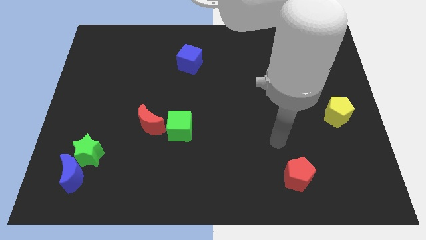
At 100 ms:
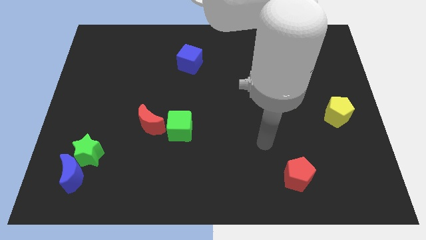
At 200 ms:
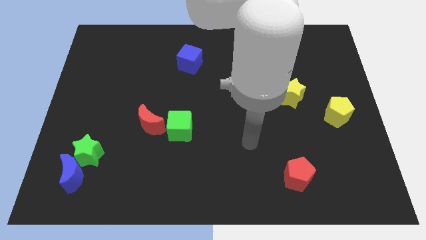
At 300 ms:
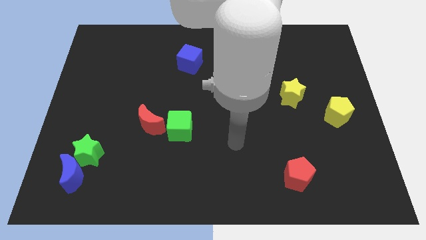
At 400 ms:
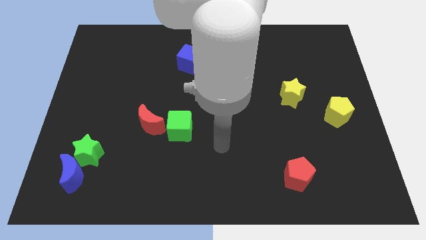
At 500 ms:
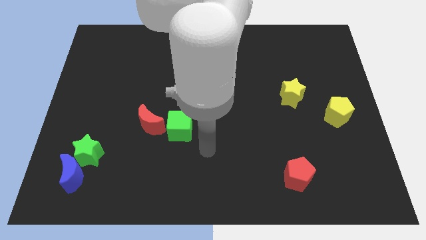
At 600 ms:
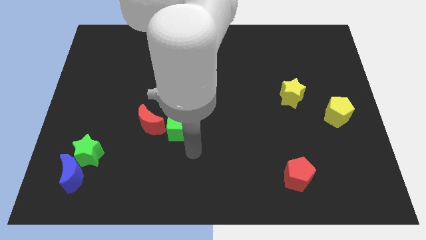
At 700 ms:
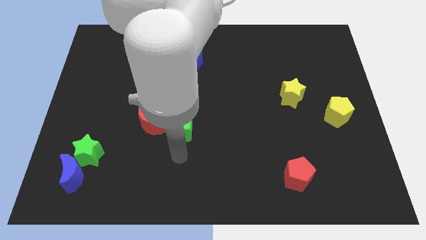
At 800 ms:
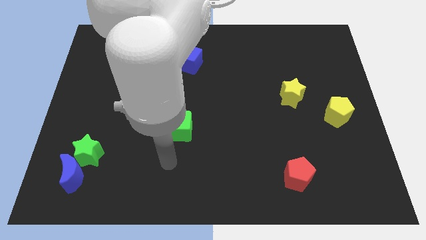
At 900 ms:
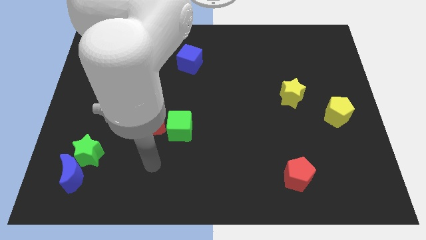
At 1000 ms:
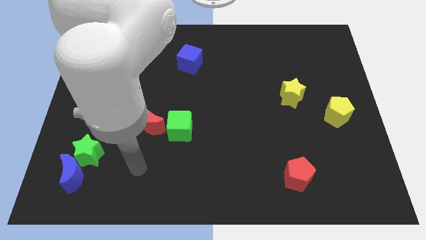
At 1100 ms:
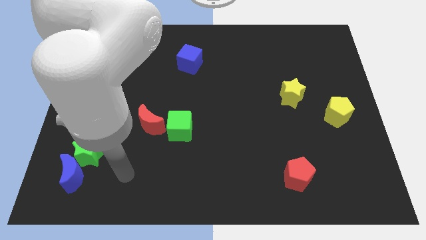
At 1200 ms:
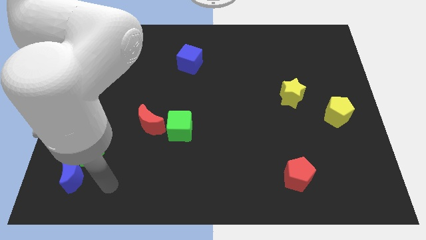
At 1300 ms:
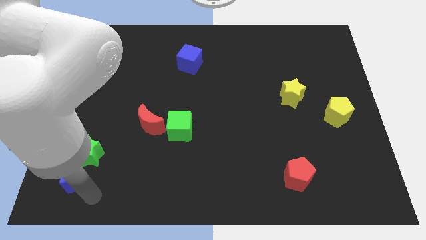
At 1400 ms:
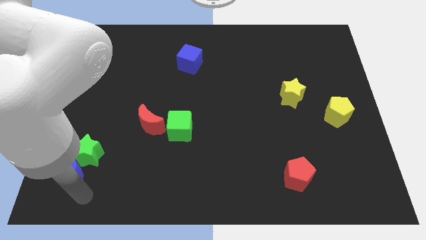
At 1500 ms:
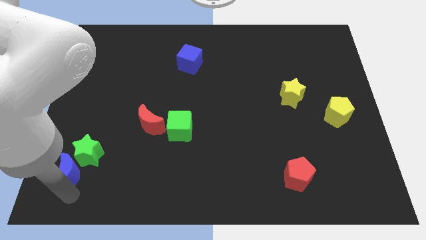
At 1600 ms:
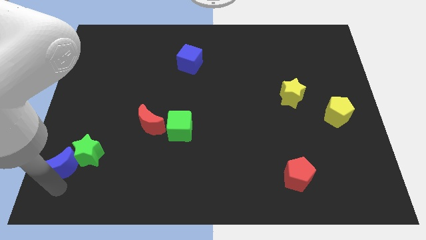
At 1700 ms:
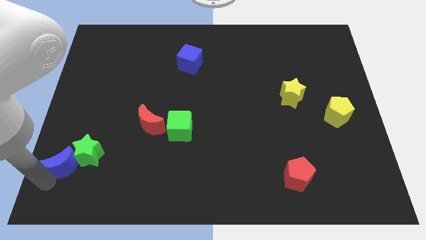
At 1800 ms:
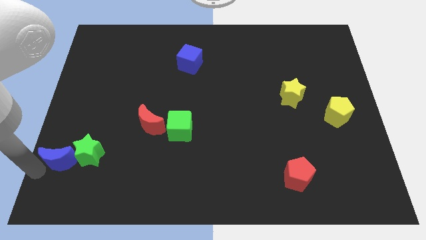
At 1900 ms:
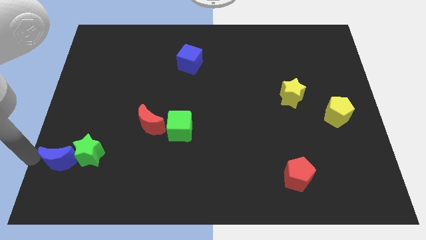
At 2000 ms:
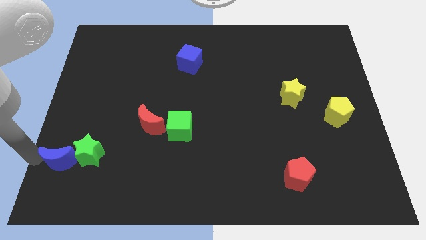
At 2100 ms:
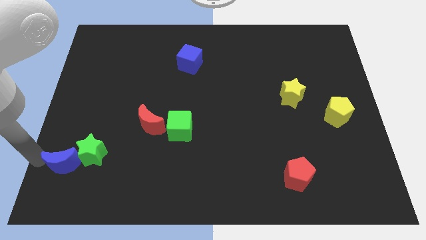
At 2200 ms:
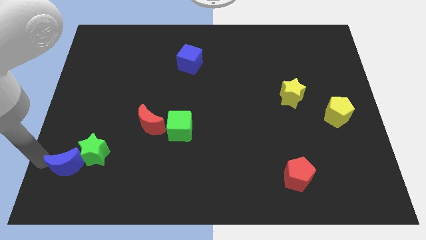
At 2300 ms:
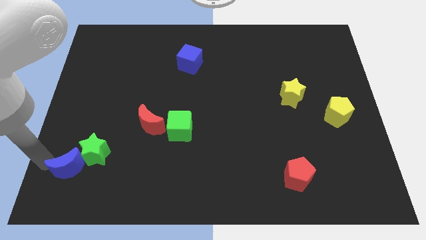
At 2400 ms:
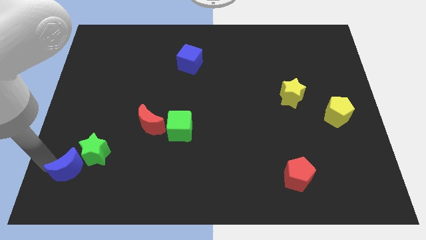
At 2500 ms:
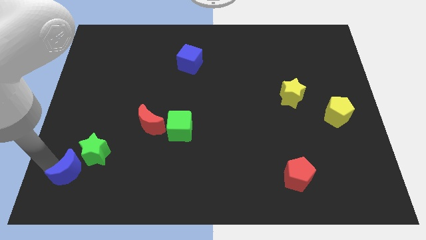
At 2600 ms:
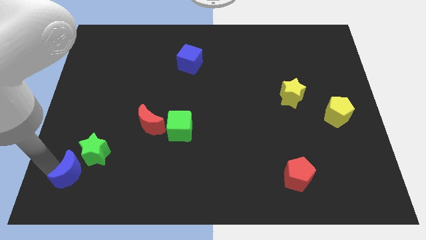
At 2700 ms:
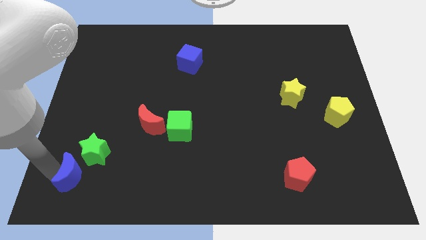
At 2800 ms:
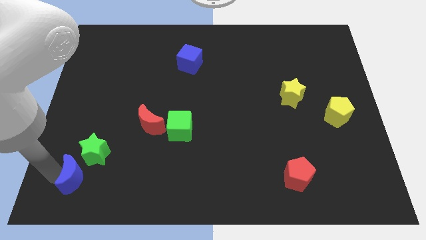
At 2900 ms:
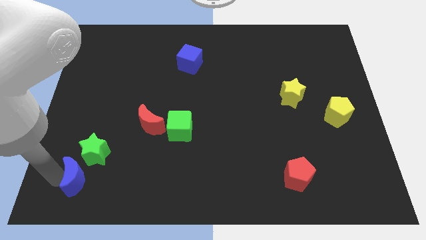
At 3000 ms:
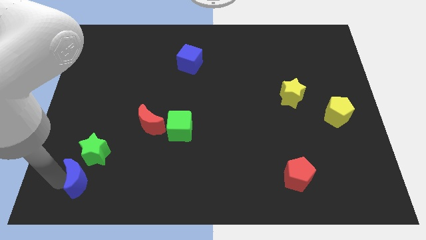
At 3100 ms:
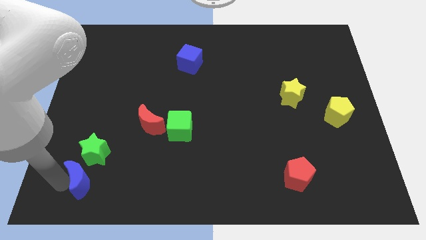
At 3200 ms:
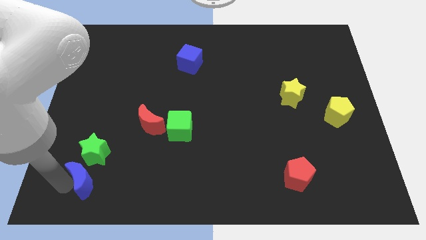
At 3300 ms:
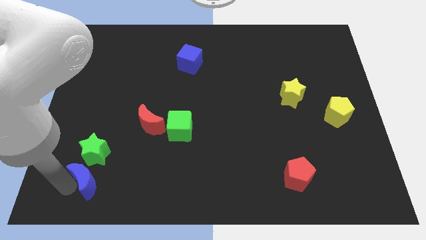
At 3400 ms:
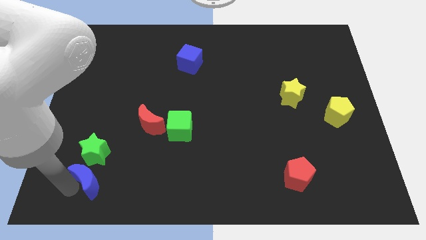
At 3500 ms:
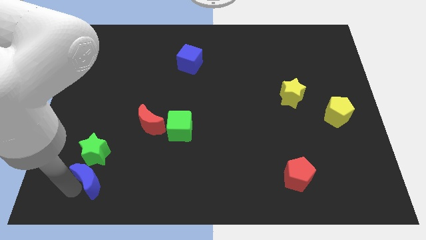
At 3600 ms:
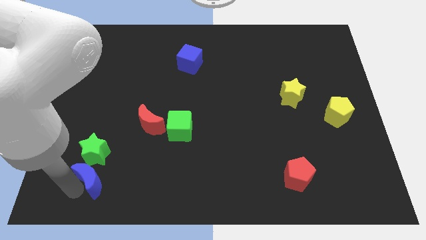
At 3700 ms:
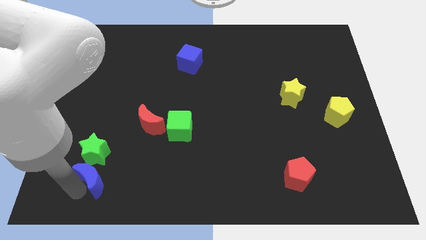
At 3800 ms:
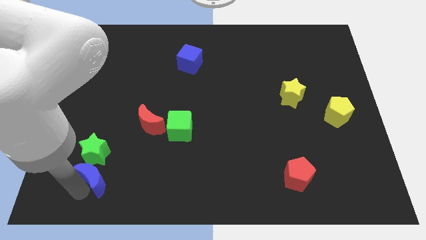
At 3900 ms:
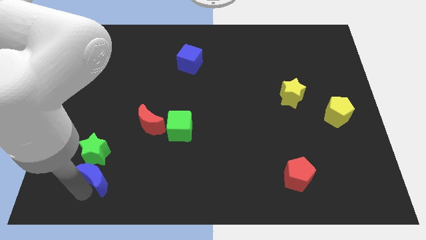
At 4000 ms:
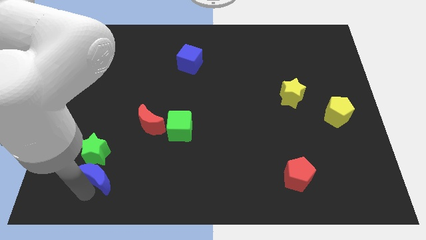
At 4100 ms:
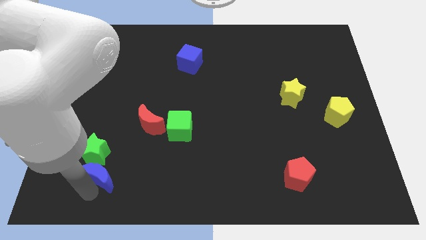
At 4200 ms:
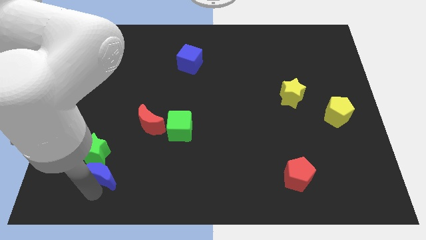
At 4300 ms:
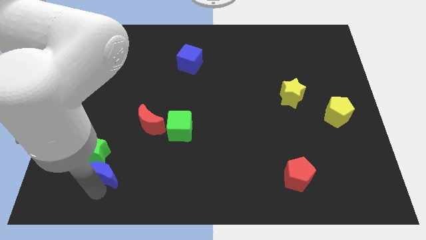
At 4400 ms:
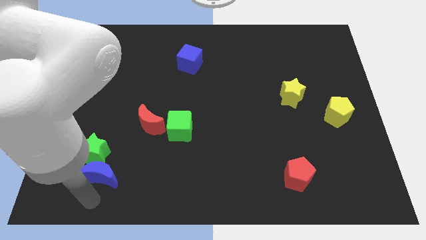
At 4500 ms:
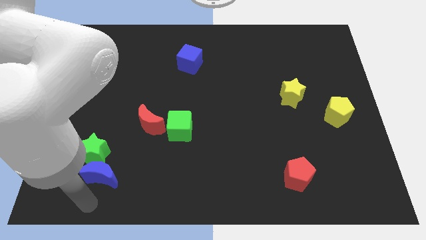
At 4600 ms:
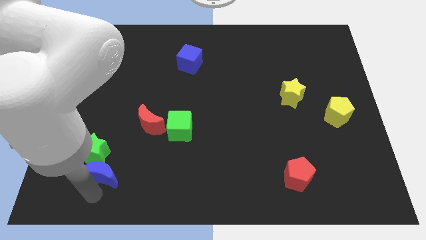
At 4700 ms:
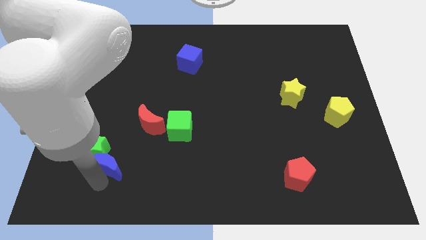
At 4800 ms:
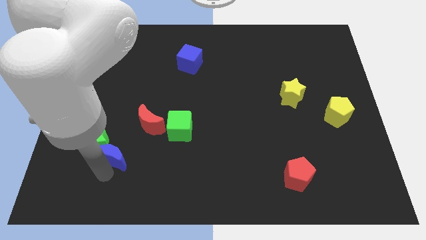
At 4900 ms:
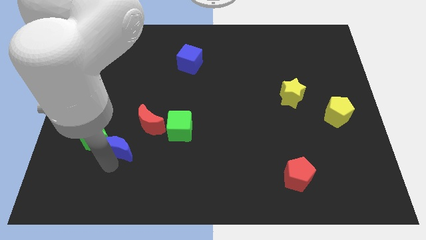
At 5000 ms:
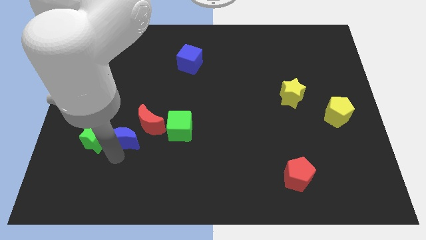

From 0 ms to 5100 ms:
slide the blue moon to the top right of the green star

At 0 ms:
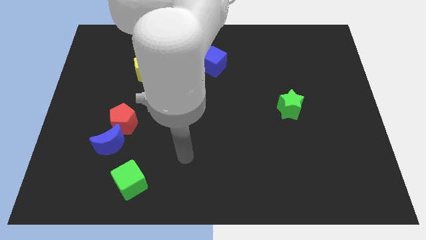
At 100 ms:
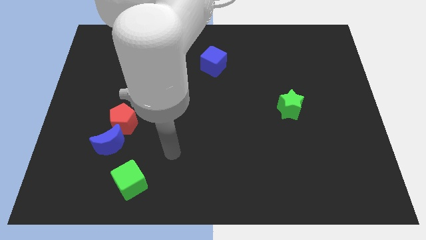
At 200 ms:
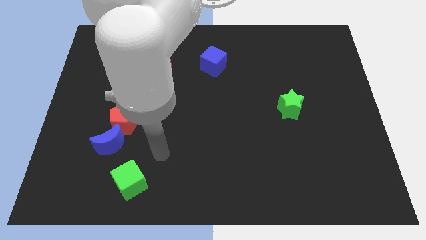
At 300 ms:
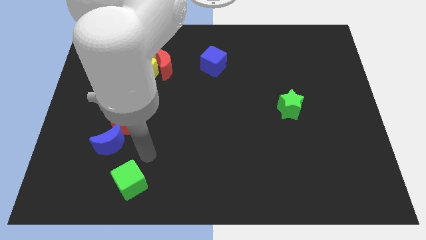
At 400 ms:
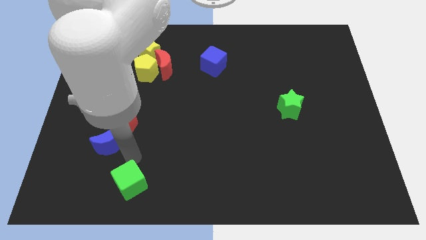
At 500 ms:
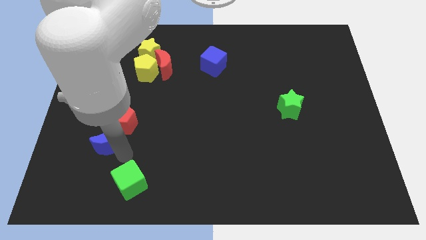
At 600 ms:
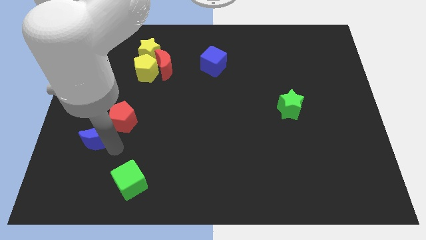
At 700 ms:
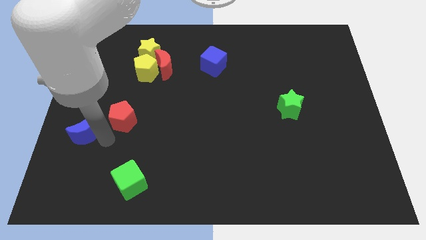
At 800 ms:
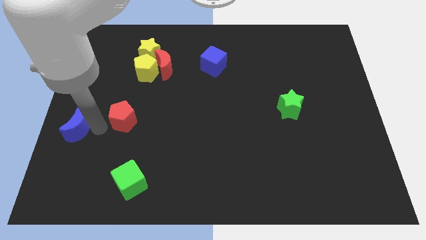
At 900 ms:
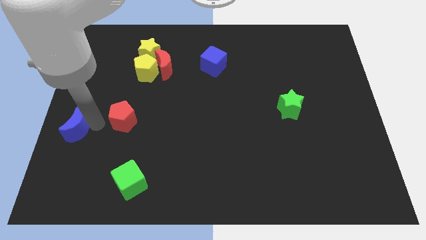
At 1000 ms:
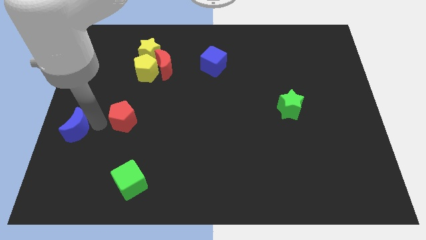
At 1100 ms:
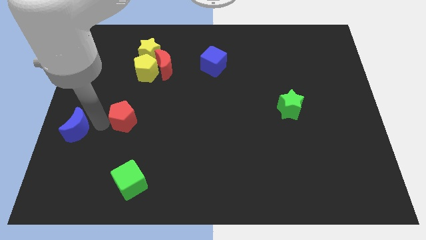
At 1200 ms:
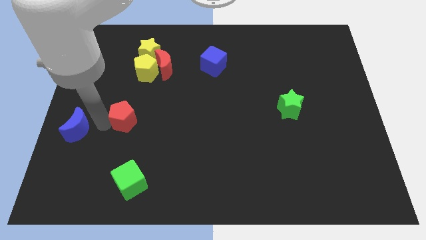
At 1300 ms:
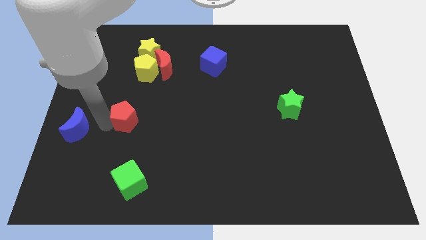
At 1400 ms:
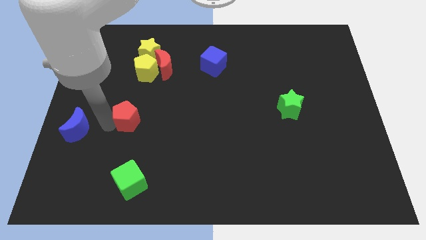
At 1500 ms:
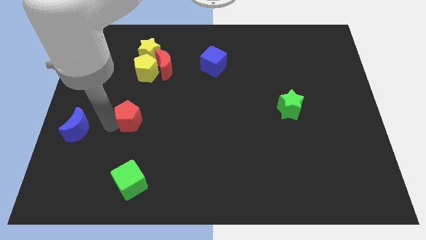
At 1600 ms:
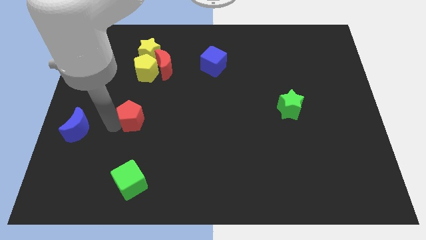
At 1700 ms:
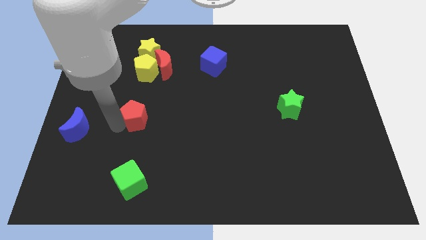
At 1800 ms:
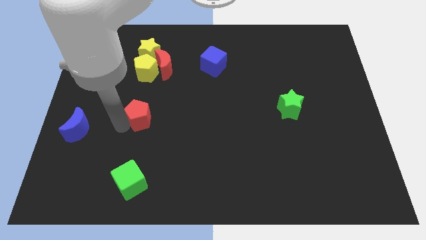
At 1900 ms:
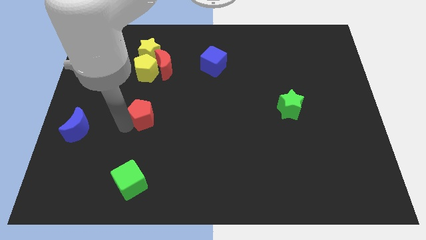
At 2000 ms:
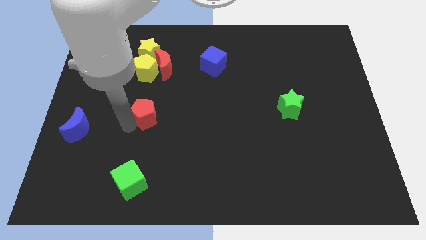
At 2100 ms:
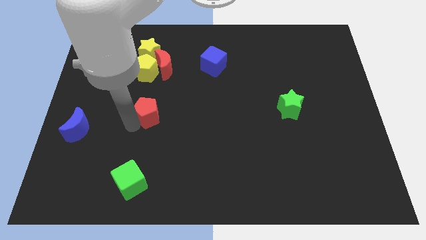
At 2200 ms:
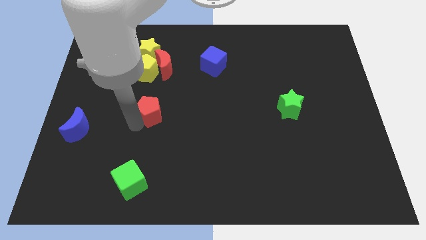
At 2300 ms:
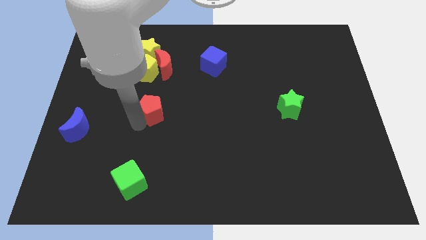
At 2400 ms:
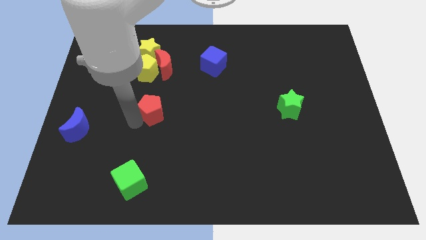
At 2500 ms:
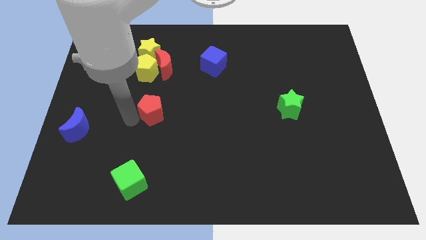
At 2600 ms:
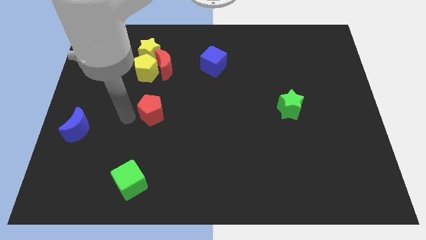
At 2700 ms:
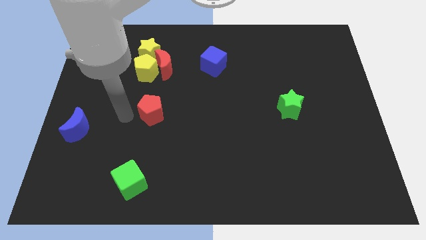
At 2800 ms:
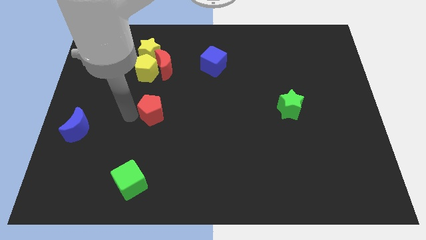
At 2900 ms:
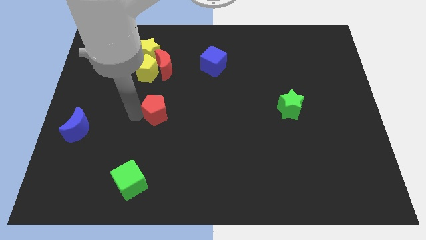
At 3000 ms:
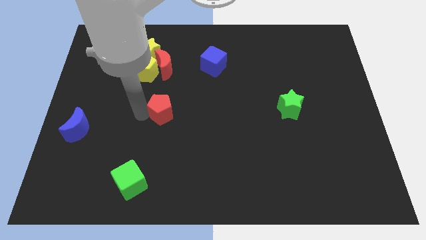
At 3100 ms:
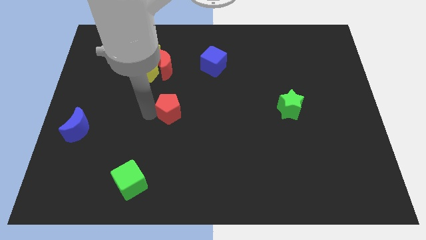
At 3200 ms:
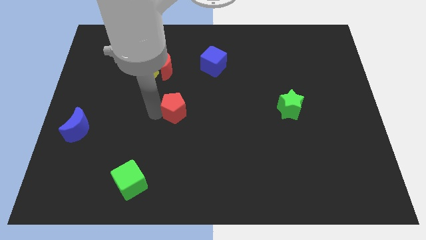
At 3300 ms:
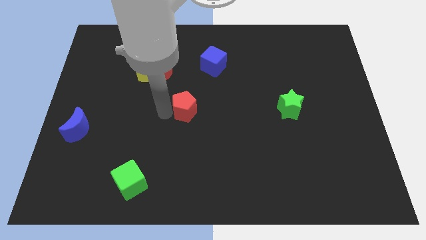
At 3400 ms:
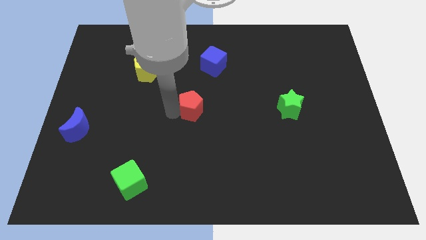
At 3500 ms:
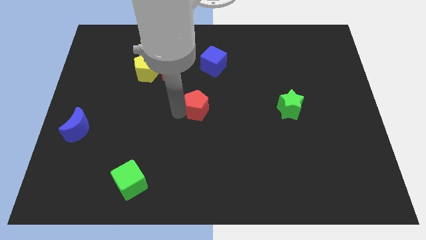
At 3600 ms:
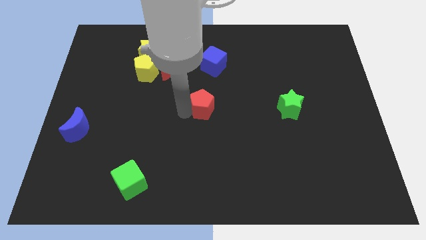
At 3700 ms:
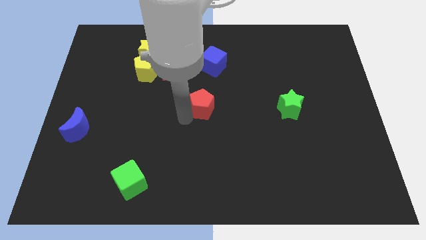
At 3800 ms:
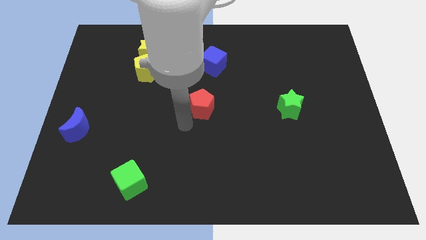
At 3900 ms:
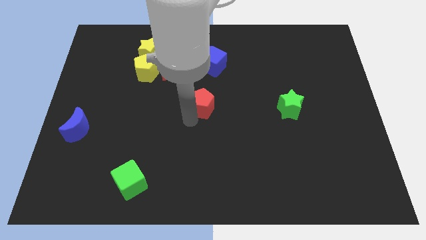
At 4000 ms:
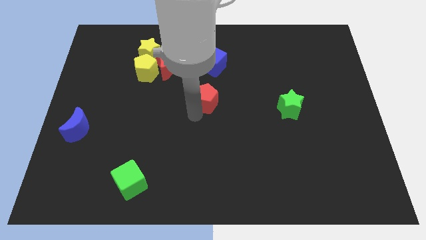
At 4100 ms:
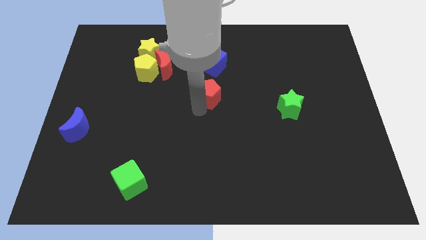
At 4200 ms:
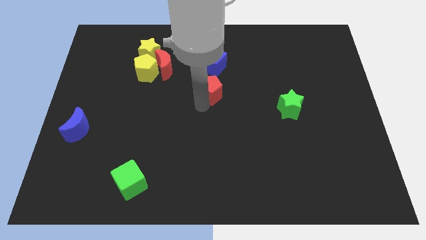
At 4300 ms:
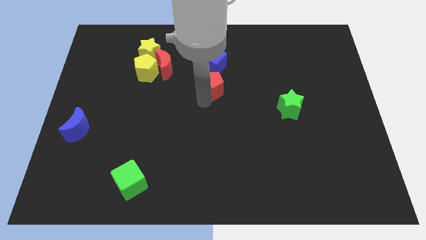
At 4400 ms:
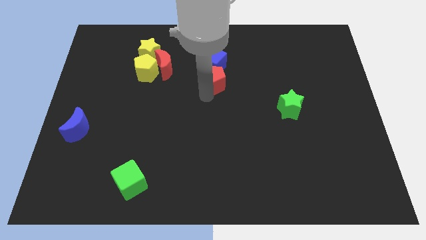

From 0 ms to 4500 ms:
push the red pentagon to the bottom right of the blue cube
